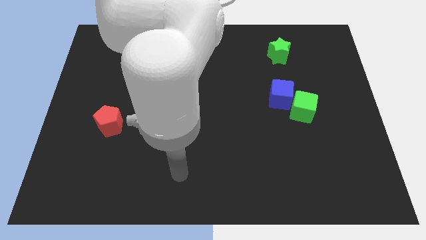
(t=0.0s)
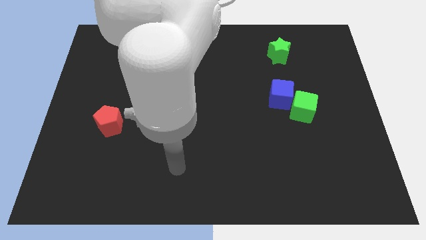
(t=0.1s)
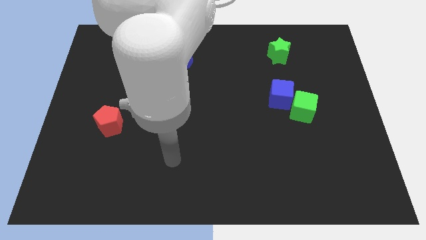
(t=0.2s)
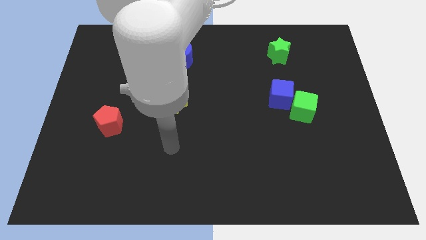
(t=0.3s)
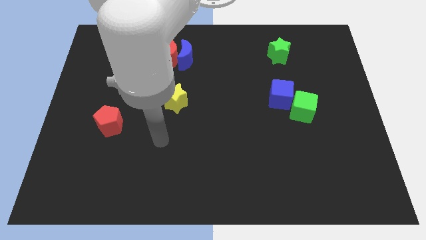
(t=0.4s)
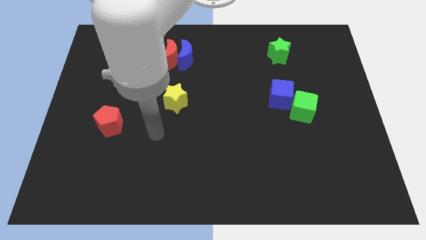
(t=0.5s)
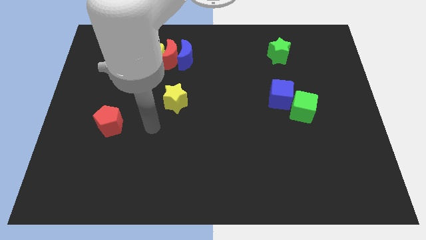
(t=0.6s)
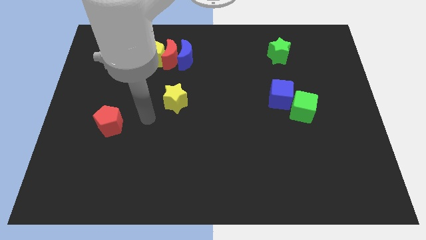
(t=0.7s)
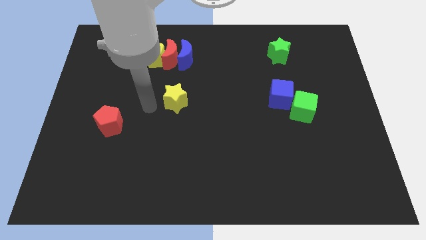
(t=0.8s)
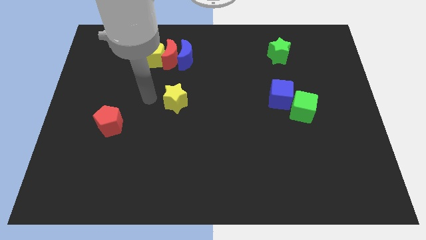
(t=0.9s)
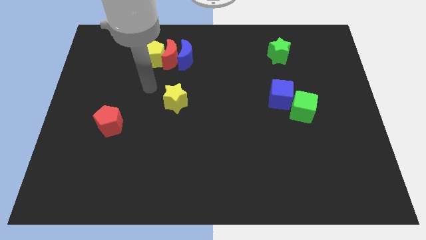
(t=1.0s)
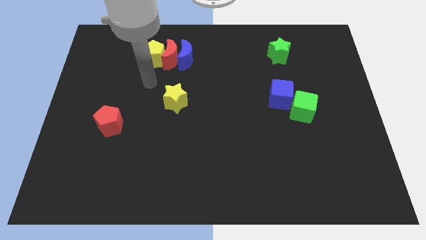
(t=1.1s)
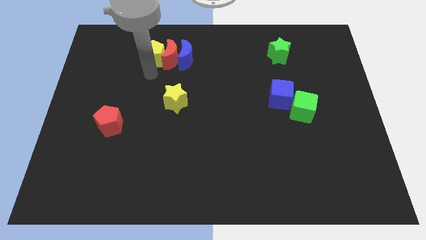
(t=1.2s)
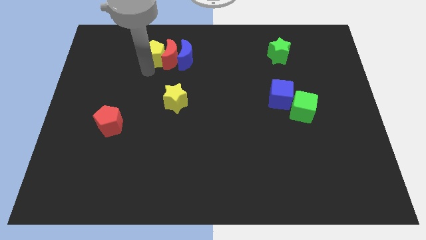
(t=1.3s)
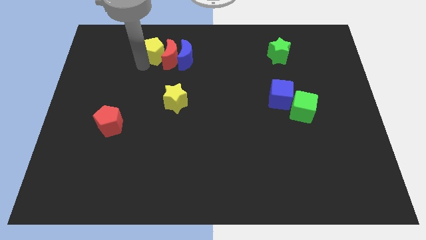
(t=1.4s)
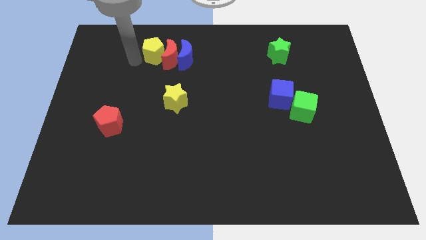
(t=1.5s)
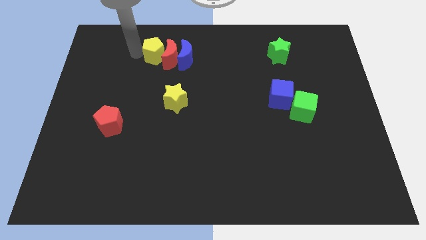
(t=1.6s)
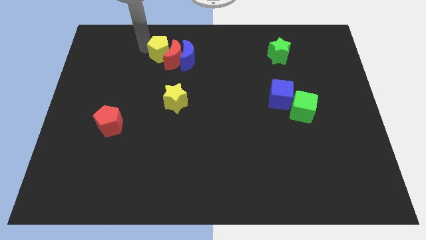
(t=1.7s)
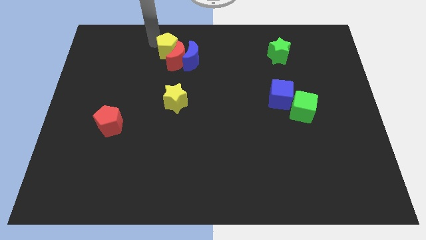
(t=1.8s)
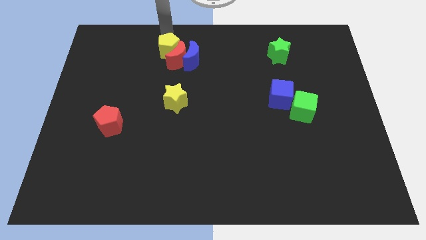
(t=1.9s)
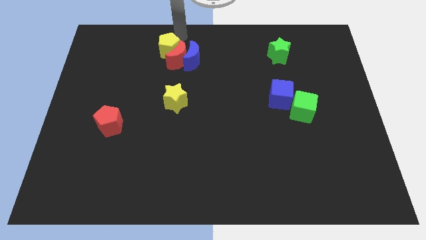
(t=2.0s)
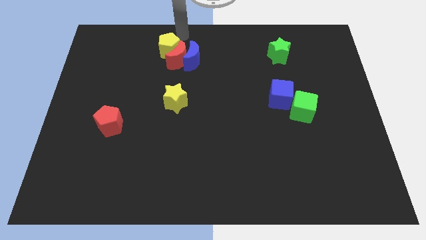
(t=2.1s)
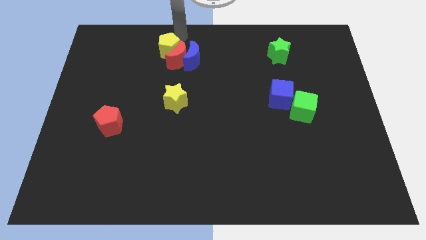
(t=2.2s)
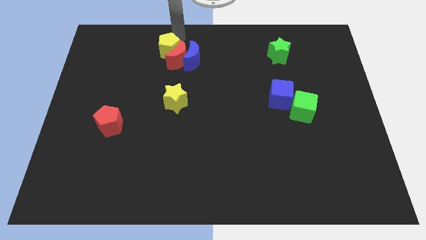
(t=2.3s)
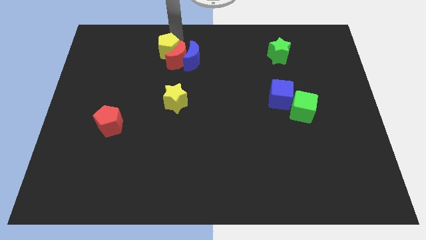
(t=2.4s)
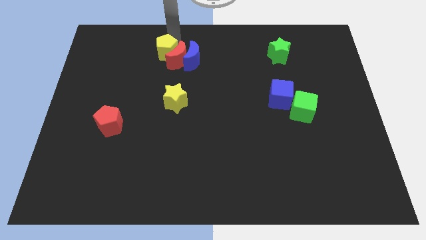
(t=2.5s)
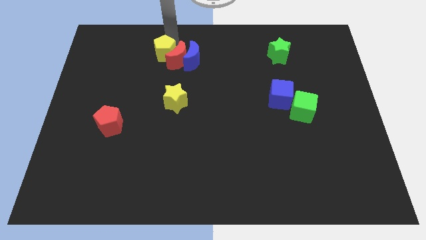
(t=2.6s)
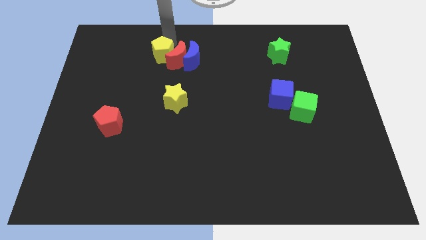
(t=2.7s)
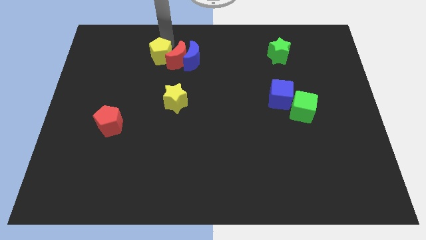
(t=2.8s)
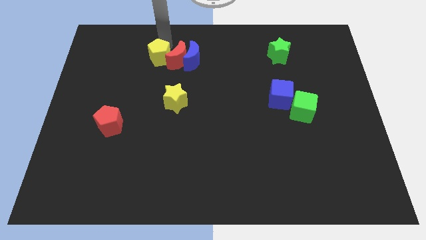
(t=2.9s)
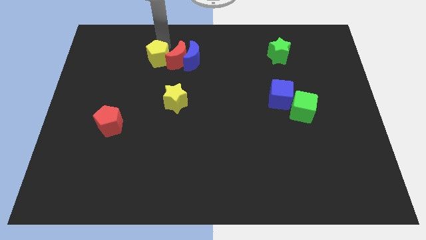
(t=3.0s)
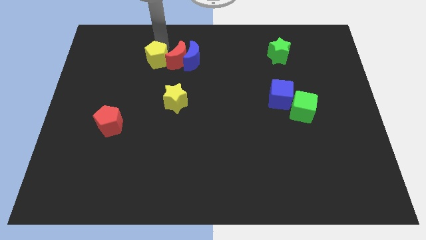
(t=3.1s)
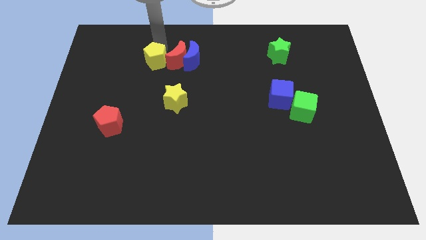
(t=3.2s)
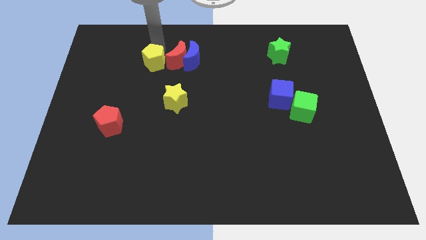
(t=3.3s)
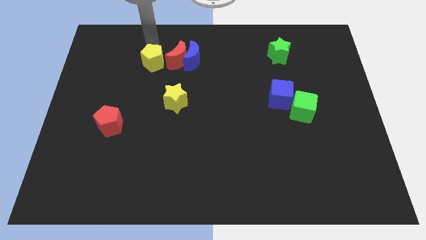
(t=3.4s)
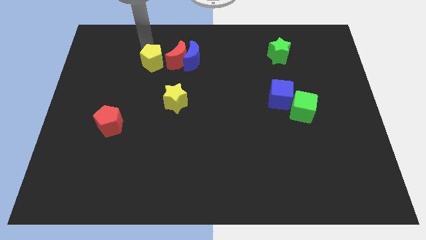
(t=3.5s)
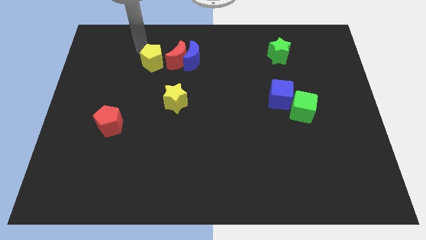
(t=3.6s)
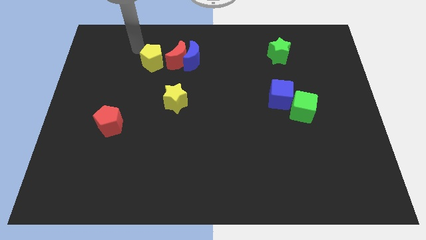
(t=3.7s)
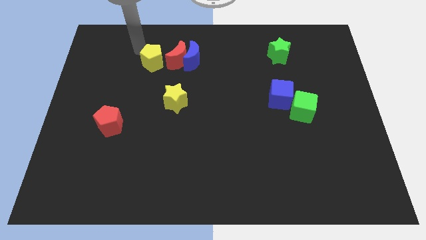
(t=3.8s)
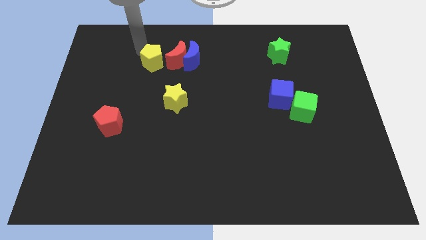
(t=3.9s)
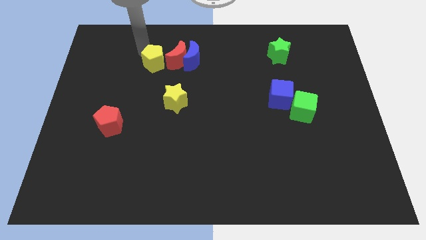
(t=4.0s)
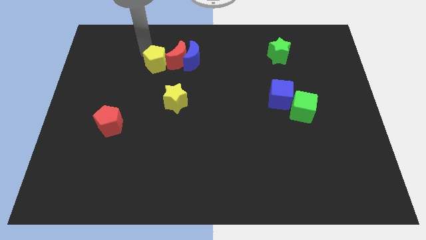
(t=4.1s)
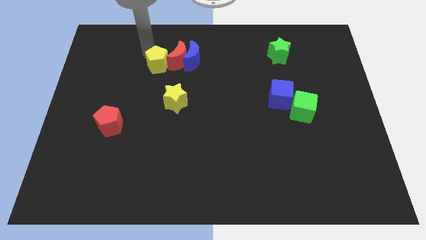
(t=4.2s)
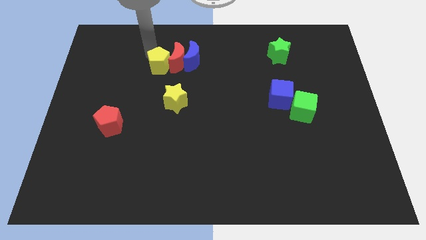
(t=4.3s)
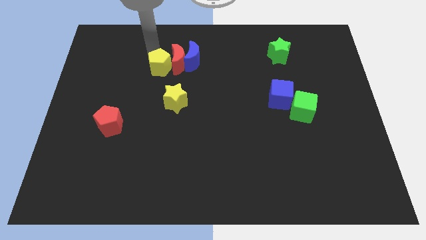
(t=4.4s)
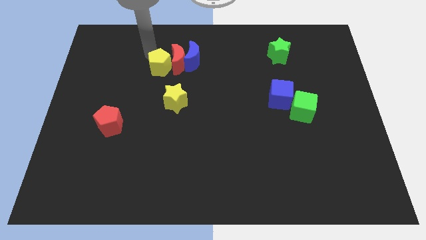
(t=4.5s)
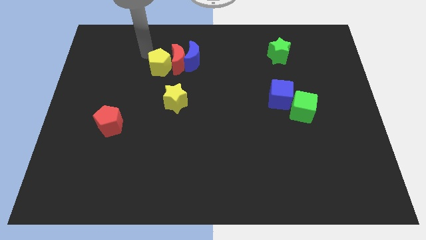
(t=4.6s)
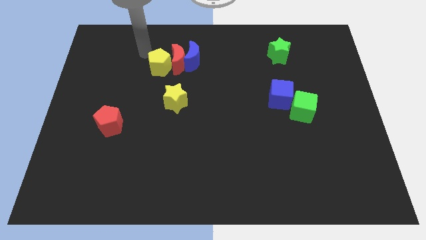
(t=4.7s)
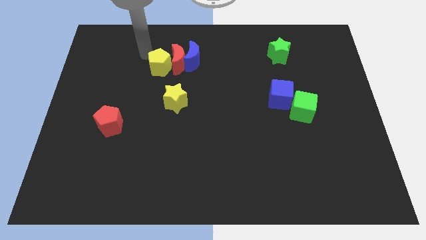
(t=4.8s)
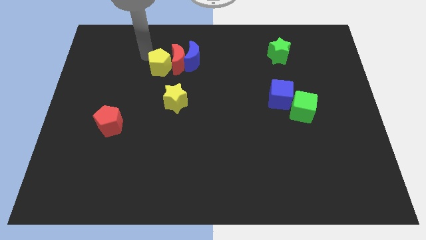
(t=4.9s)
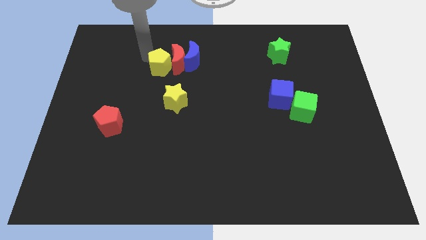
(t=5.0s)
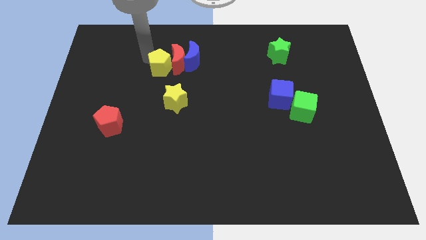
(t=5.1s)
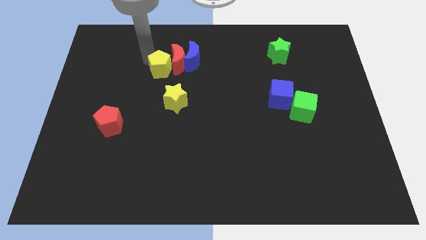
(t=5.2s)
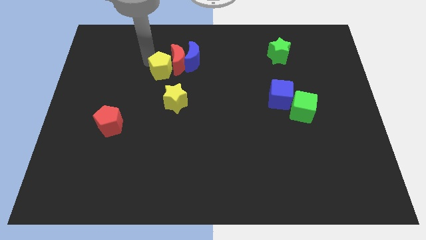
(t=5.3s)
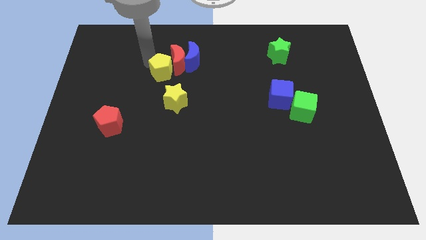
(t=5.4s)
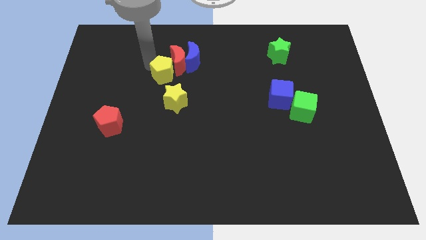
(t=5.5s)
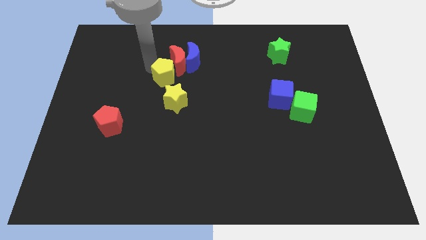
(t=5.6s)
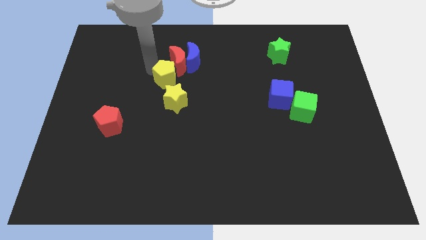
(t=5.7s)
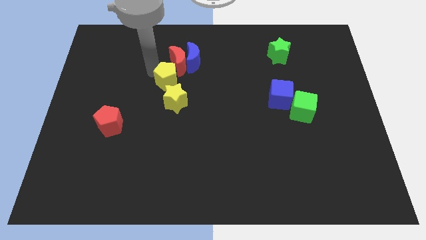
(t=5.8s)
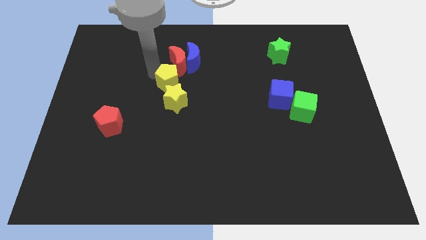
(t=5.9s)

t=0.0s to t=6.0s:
push the yellow pentagon to the middle

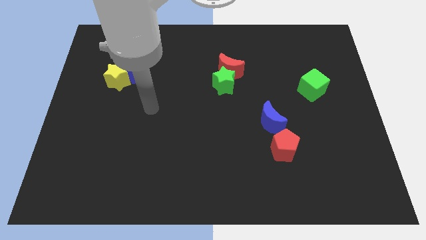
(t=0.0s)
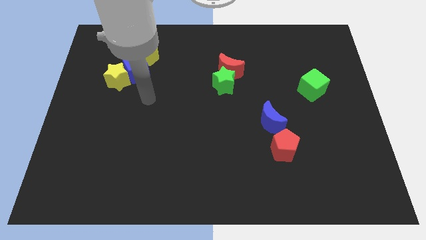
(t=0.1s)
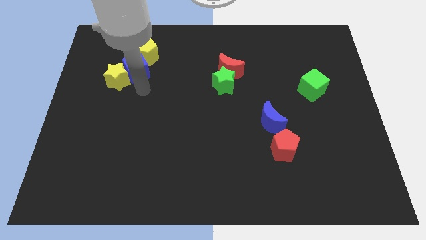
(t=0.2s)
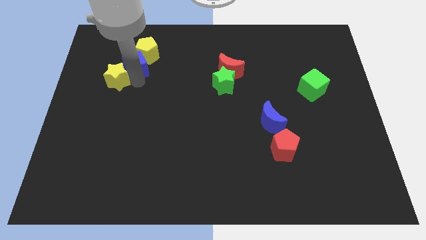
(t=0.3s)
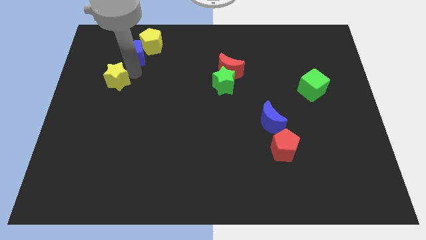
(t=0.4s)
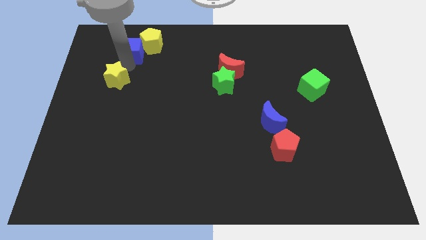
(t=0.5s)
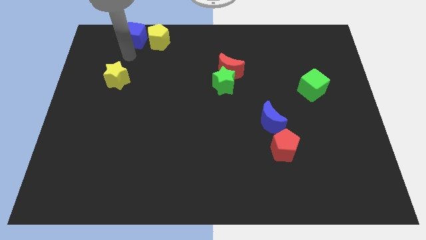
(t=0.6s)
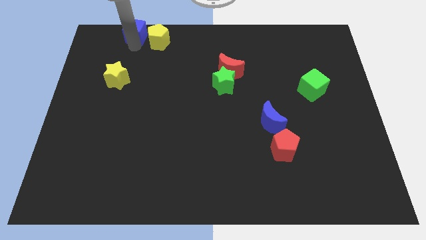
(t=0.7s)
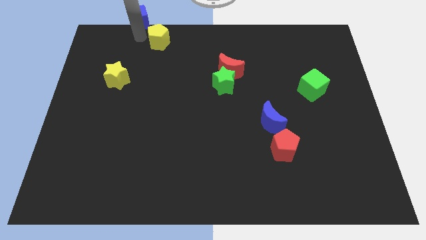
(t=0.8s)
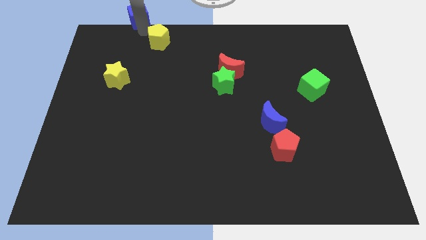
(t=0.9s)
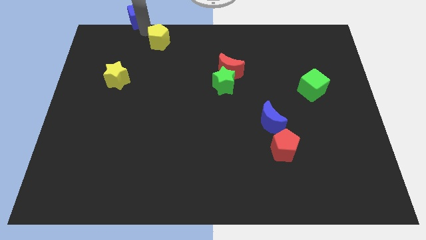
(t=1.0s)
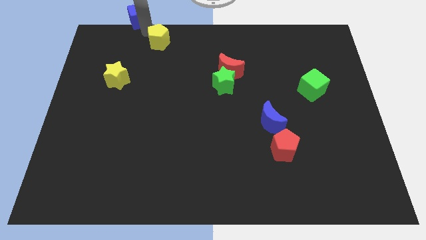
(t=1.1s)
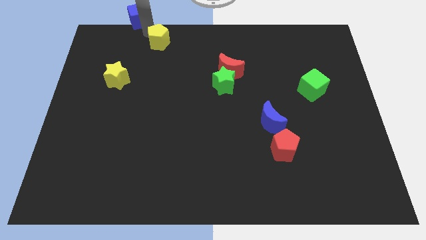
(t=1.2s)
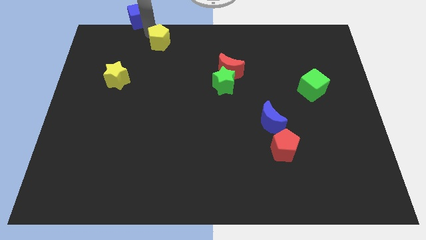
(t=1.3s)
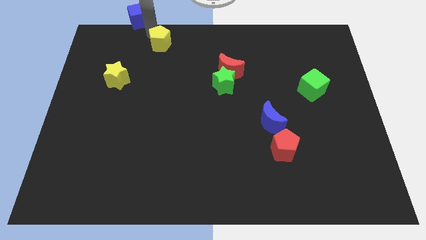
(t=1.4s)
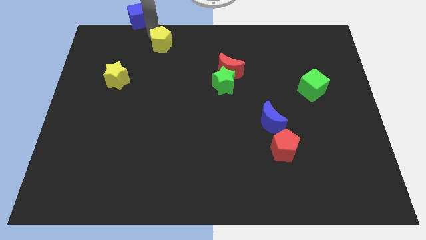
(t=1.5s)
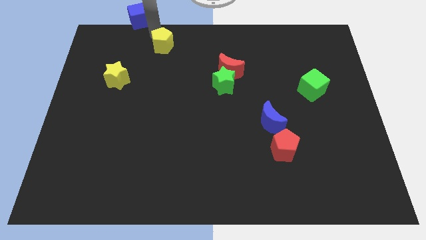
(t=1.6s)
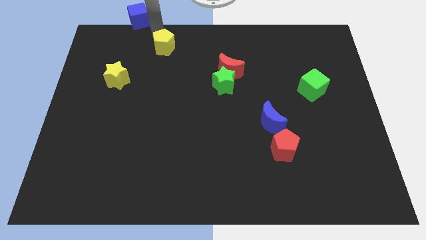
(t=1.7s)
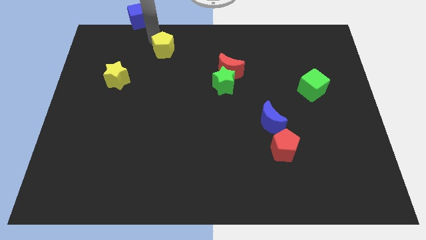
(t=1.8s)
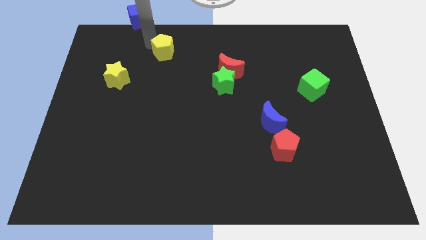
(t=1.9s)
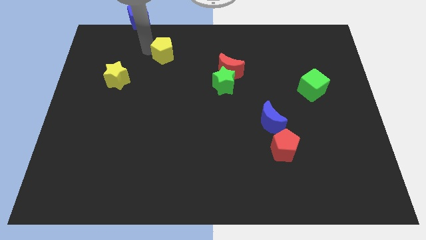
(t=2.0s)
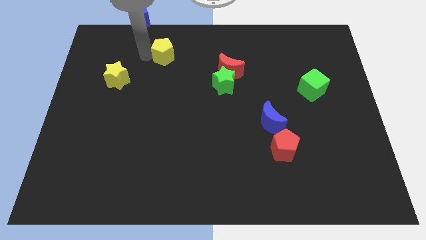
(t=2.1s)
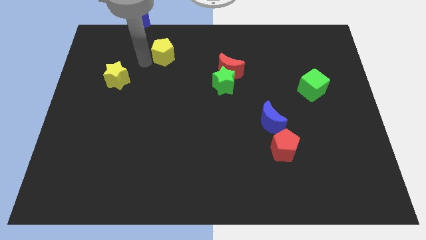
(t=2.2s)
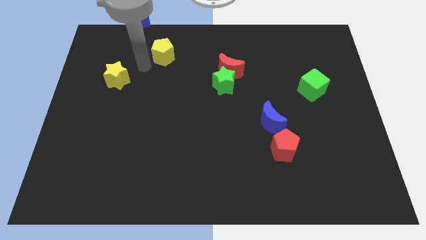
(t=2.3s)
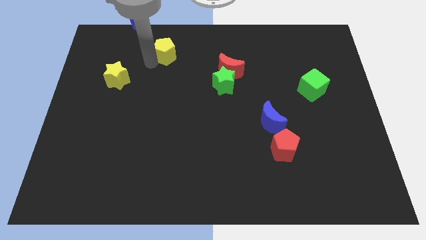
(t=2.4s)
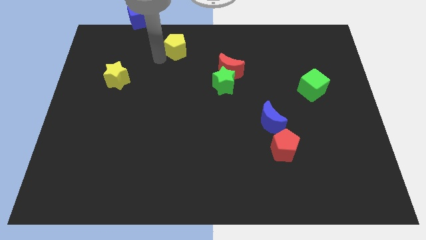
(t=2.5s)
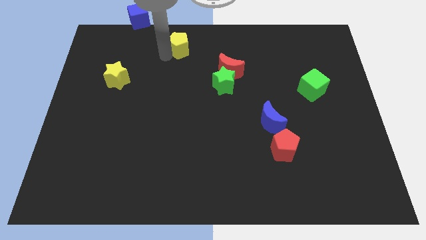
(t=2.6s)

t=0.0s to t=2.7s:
slide the yellow pentagon to the top side
